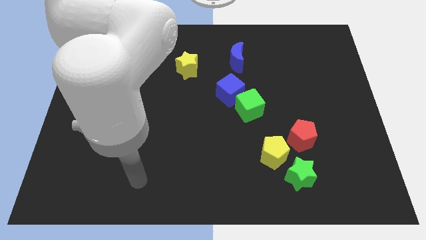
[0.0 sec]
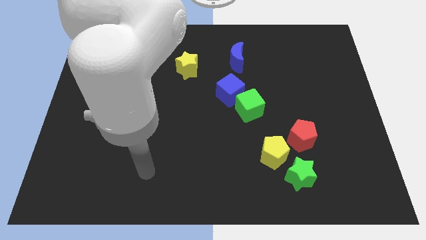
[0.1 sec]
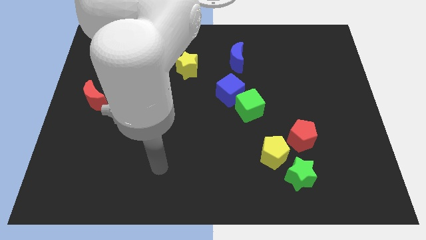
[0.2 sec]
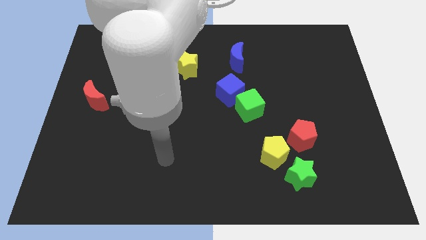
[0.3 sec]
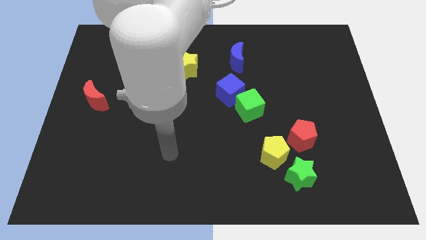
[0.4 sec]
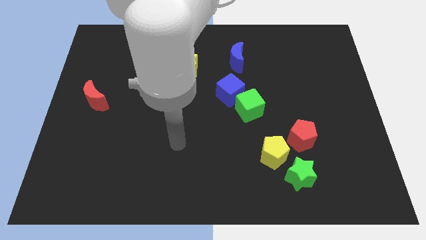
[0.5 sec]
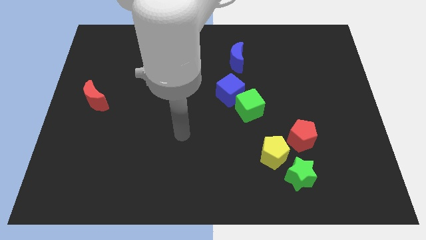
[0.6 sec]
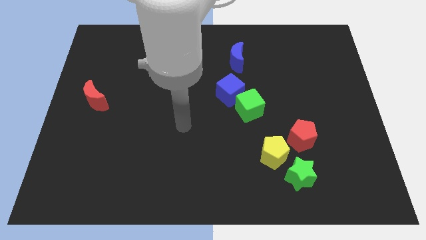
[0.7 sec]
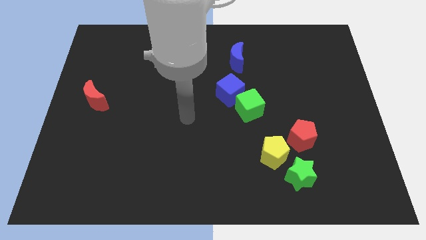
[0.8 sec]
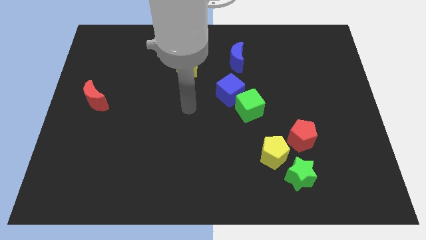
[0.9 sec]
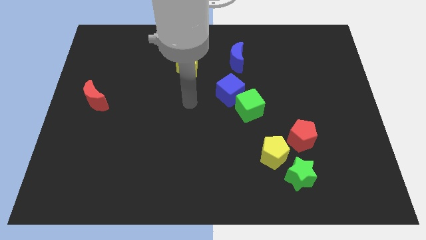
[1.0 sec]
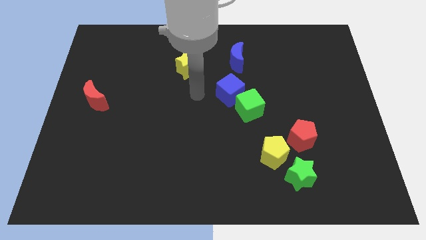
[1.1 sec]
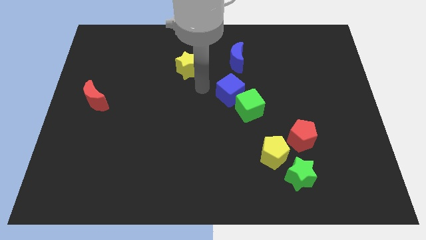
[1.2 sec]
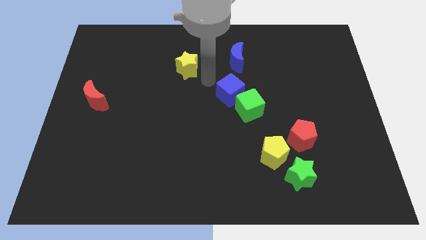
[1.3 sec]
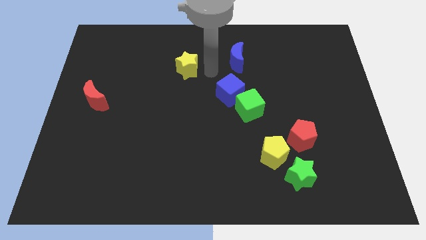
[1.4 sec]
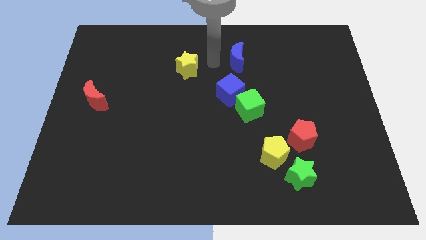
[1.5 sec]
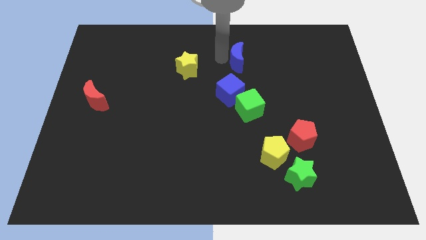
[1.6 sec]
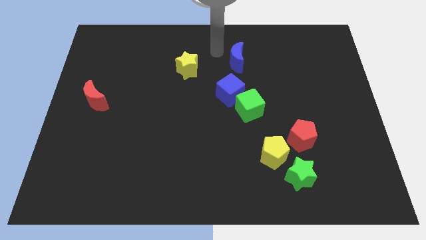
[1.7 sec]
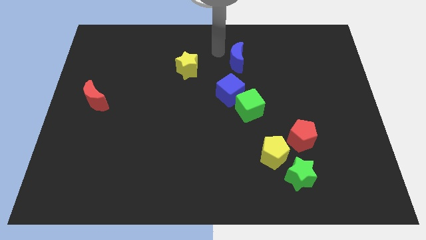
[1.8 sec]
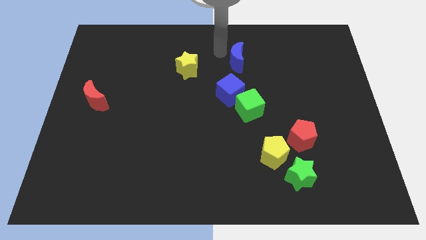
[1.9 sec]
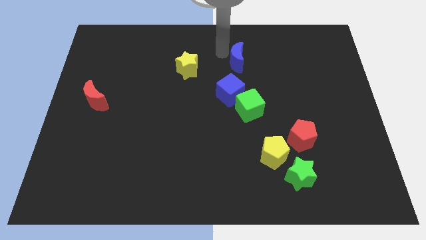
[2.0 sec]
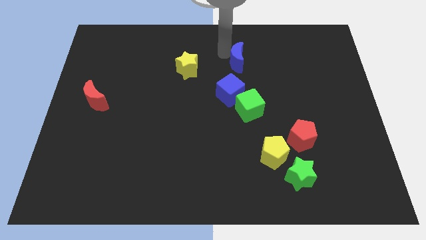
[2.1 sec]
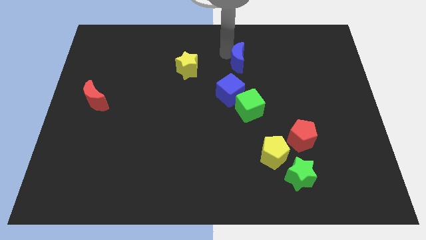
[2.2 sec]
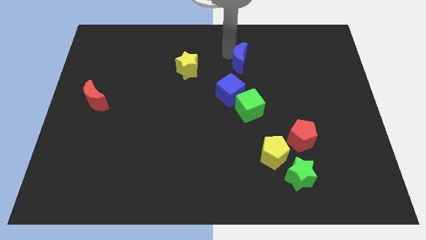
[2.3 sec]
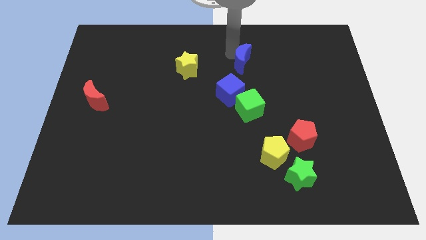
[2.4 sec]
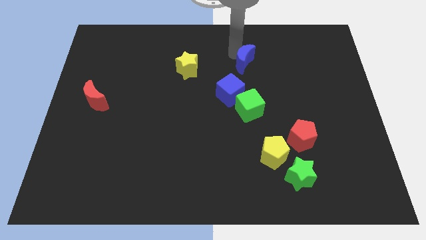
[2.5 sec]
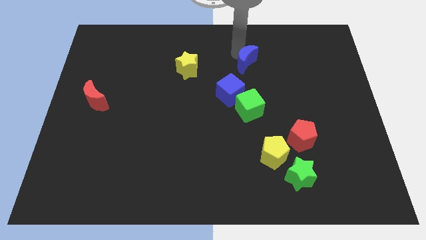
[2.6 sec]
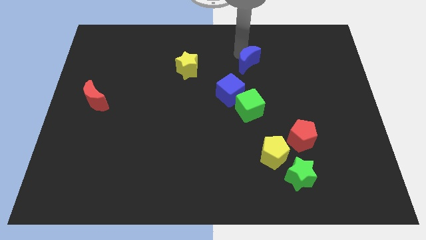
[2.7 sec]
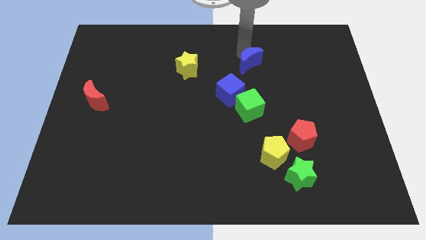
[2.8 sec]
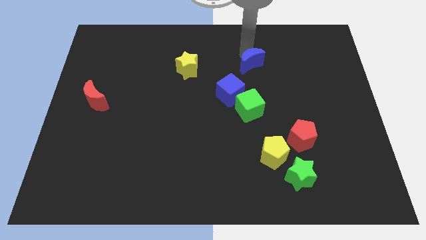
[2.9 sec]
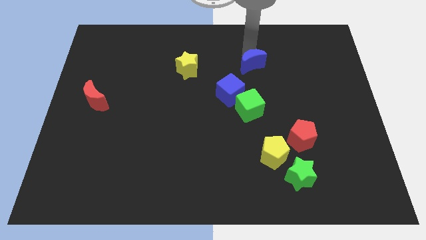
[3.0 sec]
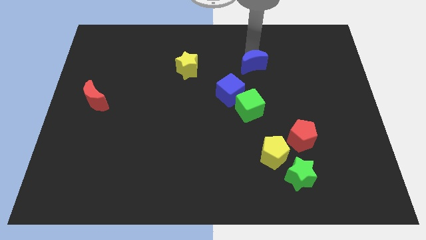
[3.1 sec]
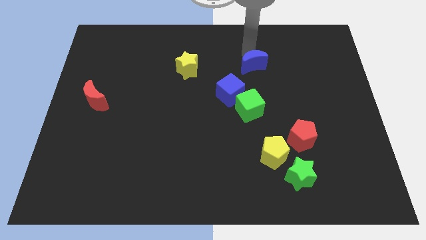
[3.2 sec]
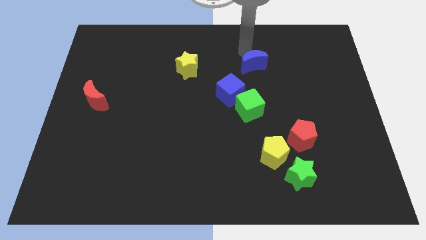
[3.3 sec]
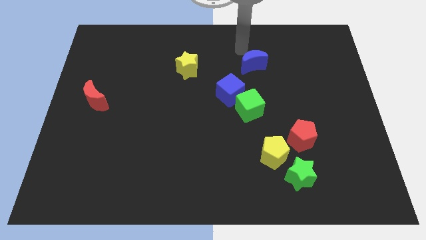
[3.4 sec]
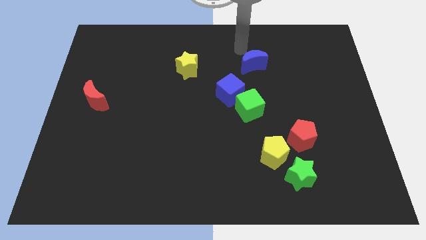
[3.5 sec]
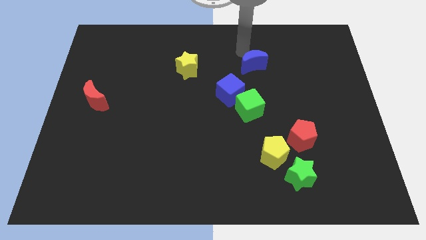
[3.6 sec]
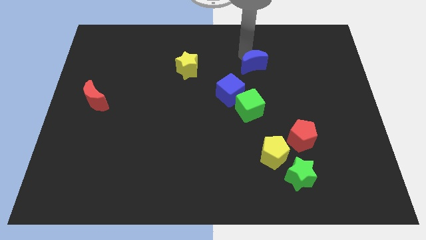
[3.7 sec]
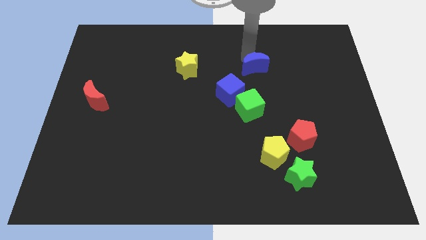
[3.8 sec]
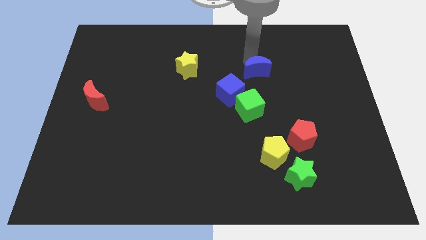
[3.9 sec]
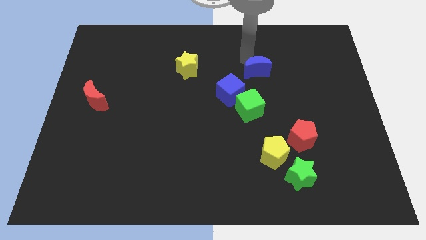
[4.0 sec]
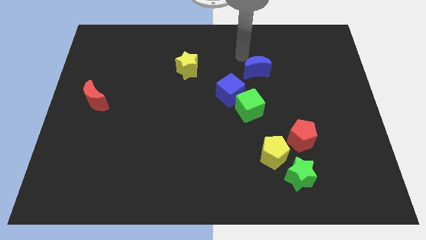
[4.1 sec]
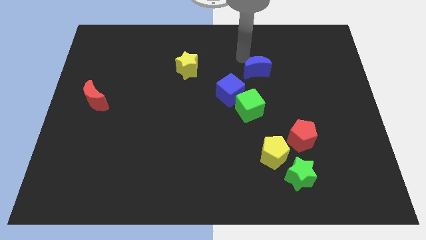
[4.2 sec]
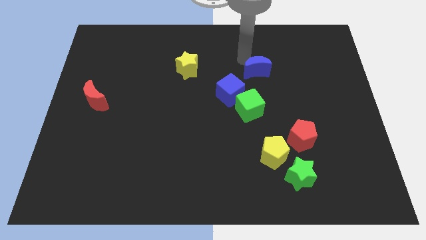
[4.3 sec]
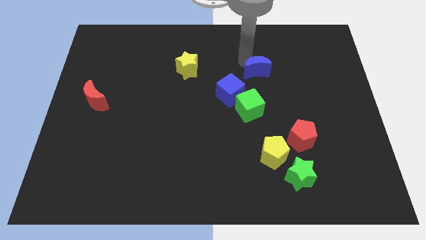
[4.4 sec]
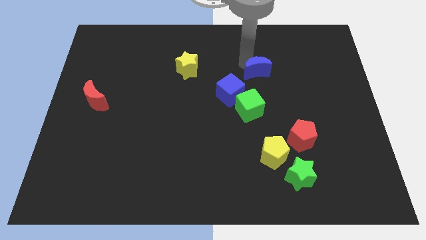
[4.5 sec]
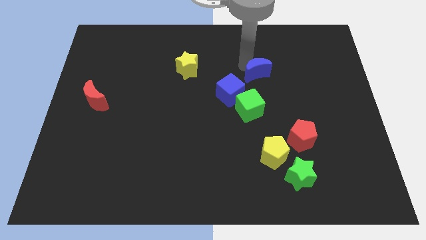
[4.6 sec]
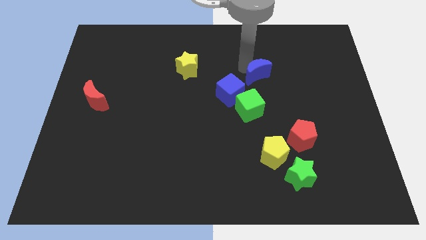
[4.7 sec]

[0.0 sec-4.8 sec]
push the blue moon a bit diagonally downwards and to the right

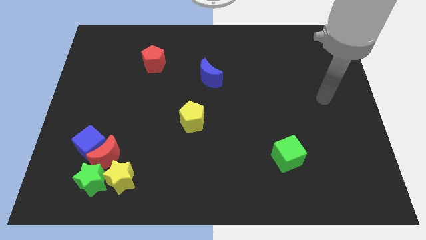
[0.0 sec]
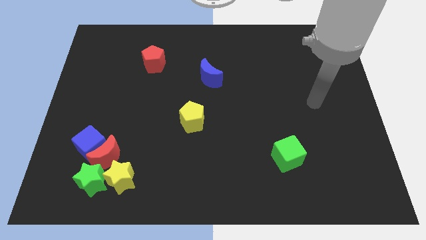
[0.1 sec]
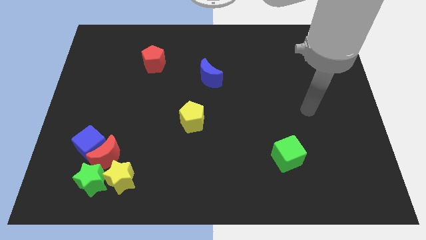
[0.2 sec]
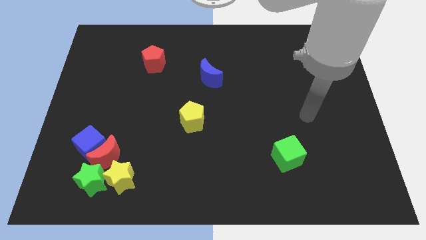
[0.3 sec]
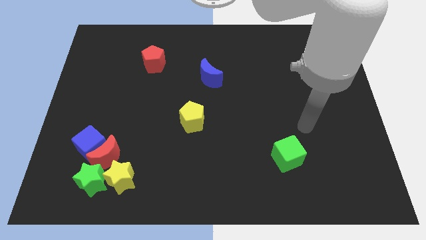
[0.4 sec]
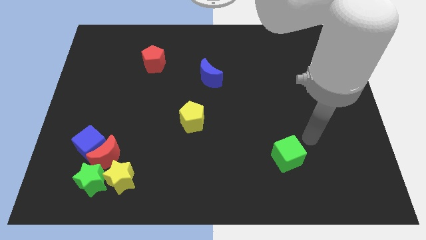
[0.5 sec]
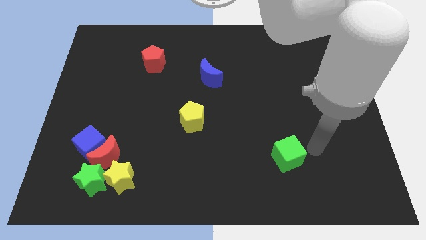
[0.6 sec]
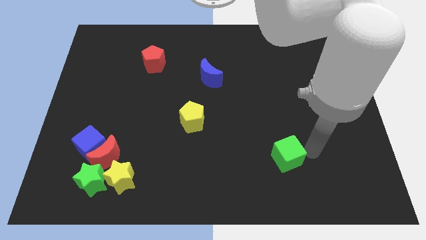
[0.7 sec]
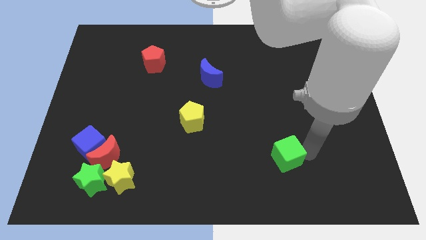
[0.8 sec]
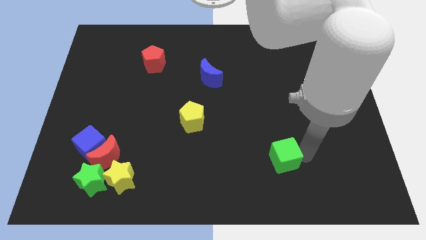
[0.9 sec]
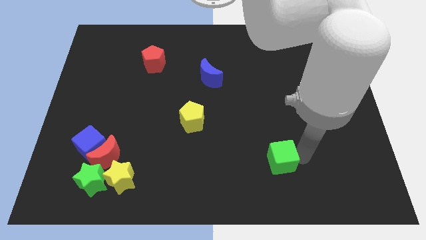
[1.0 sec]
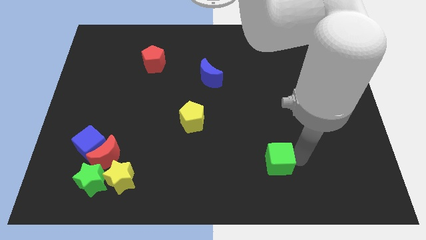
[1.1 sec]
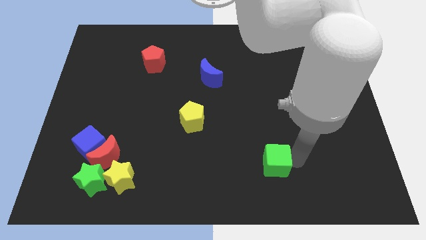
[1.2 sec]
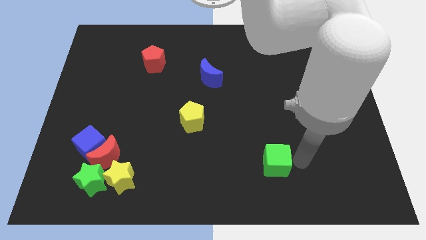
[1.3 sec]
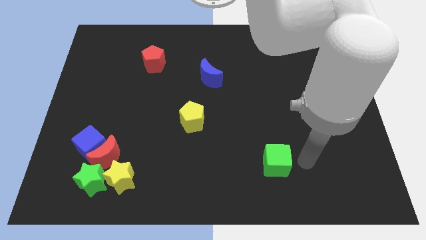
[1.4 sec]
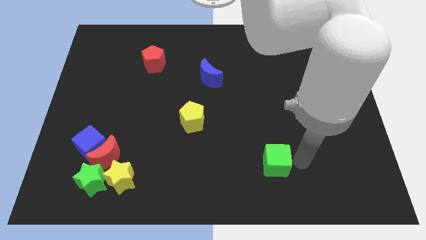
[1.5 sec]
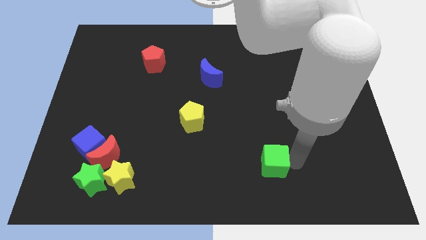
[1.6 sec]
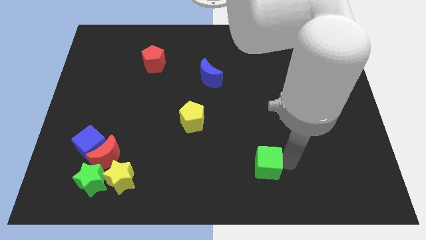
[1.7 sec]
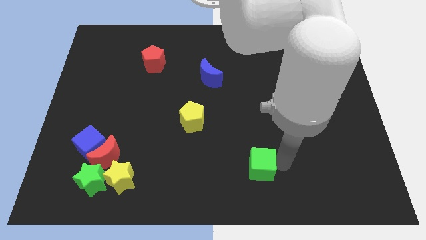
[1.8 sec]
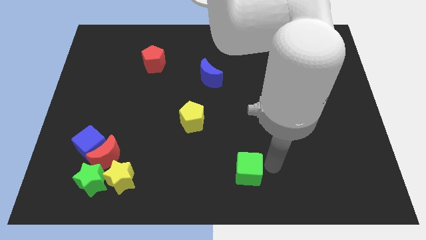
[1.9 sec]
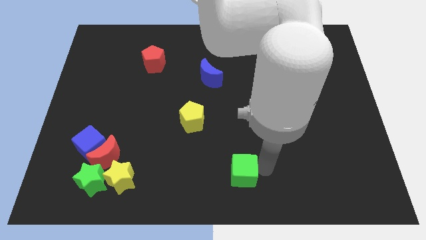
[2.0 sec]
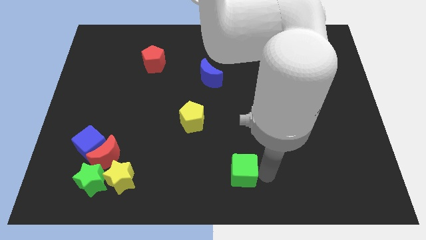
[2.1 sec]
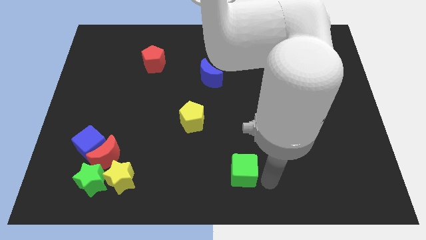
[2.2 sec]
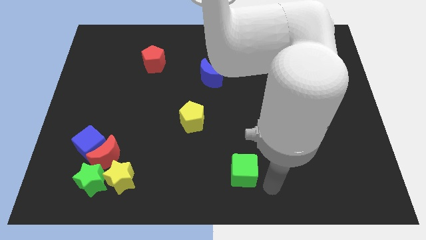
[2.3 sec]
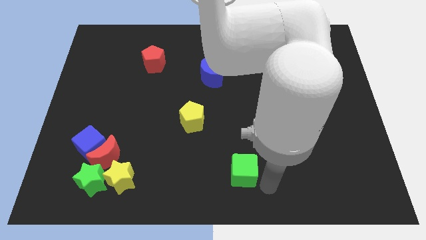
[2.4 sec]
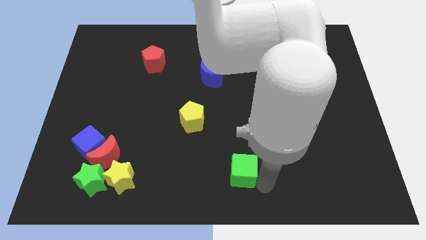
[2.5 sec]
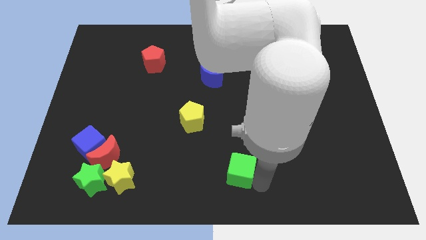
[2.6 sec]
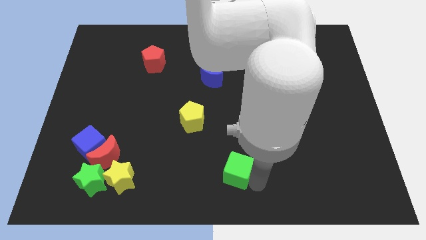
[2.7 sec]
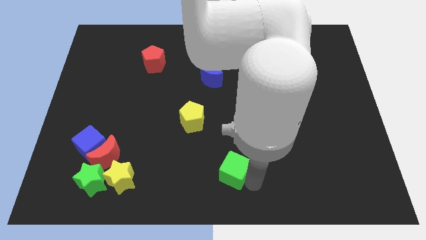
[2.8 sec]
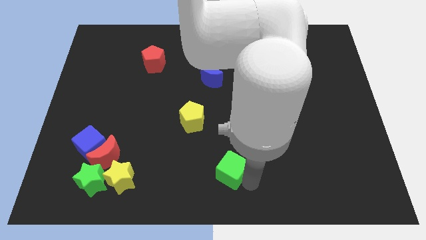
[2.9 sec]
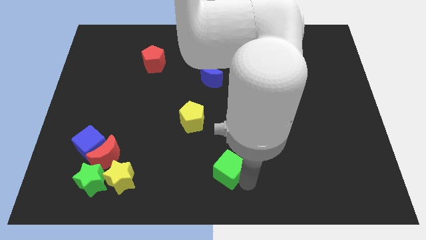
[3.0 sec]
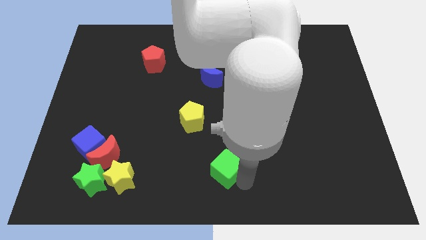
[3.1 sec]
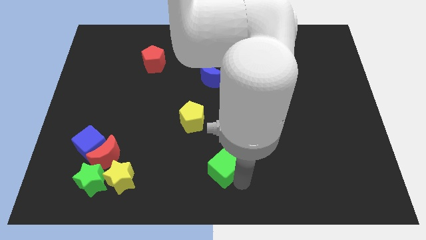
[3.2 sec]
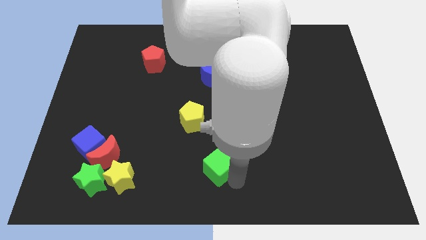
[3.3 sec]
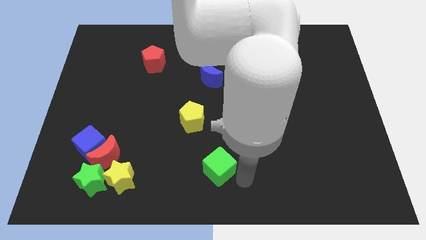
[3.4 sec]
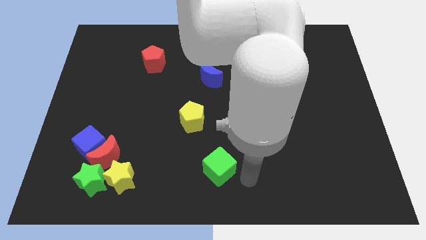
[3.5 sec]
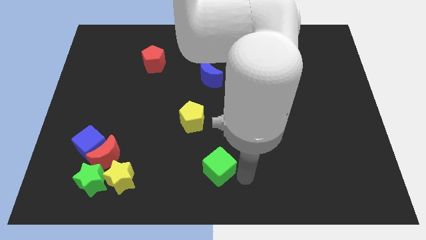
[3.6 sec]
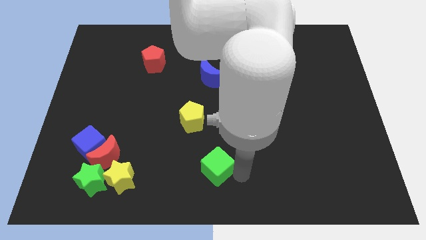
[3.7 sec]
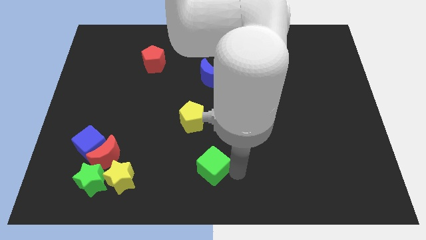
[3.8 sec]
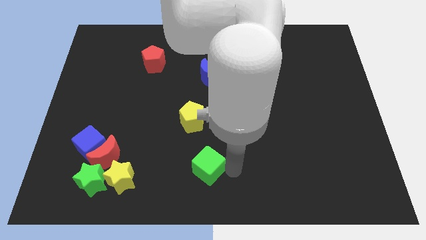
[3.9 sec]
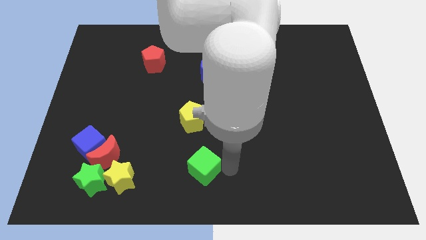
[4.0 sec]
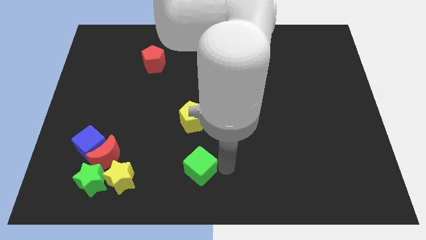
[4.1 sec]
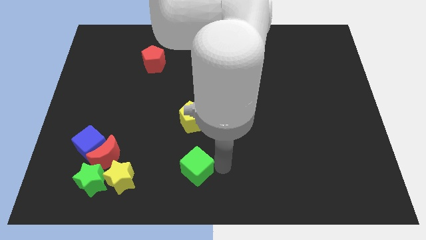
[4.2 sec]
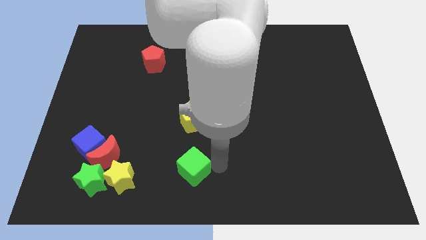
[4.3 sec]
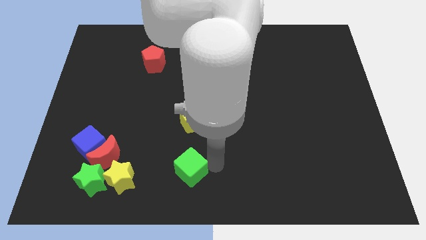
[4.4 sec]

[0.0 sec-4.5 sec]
push the green cube left
